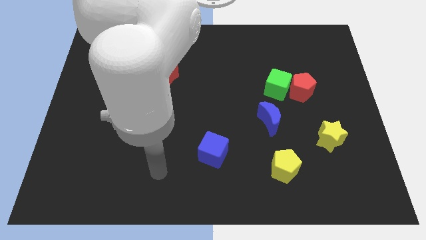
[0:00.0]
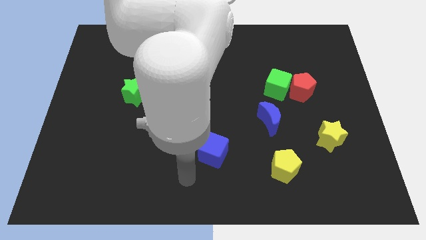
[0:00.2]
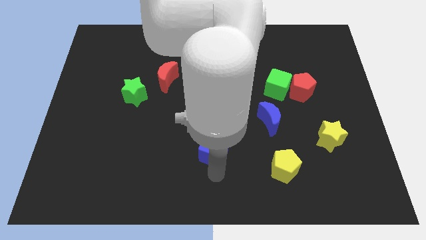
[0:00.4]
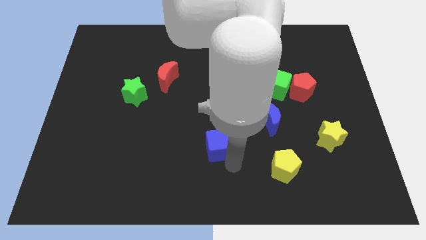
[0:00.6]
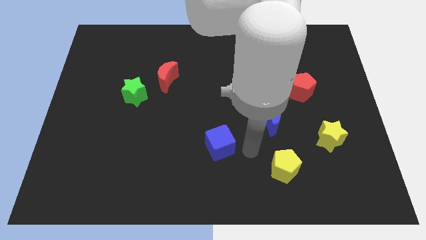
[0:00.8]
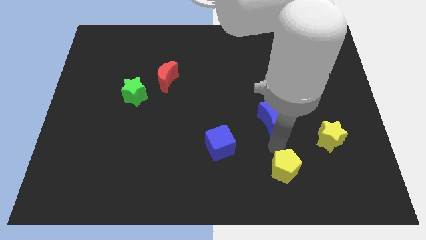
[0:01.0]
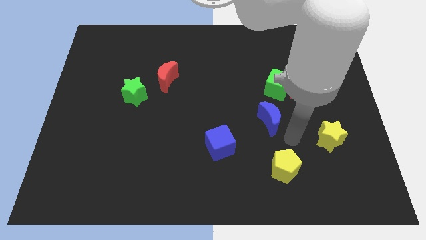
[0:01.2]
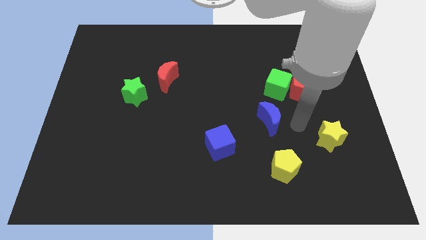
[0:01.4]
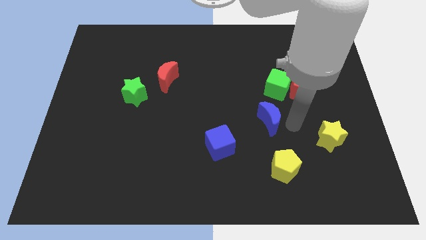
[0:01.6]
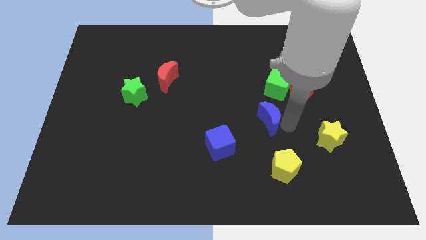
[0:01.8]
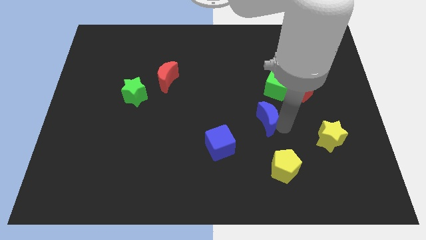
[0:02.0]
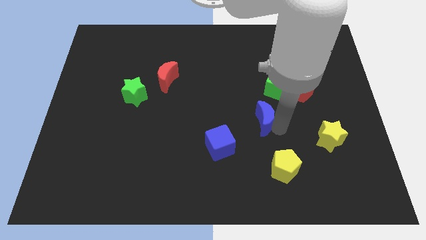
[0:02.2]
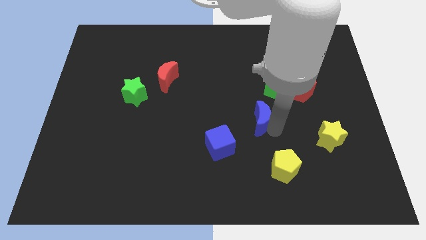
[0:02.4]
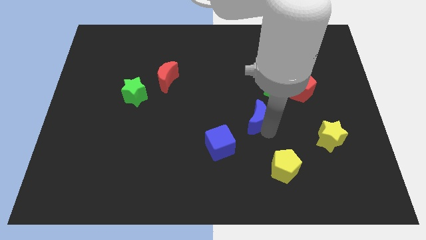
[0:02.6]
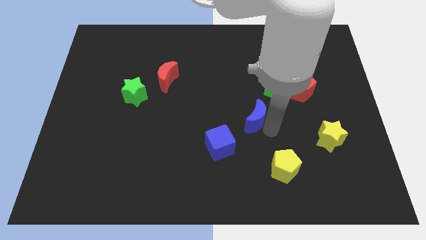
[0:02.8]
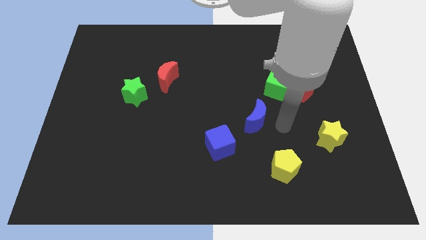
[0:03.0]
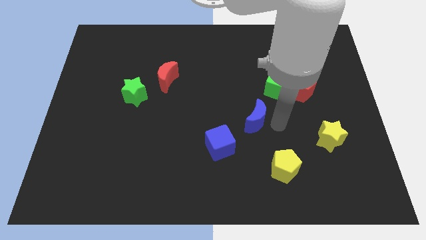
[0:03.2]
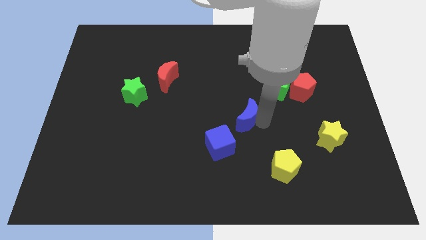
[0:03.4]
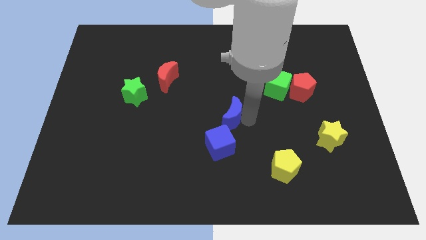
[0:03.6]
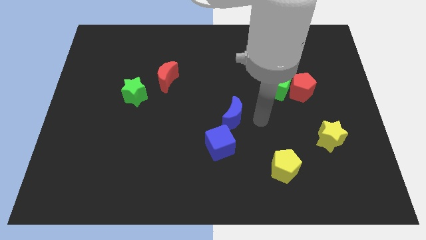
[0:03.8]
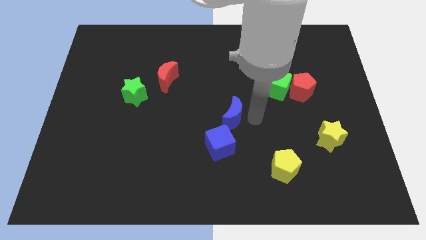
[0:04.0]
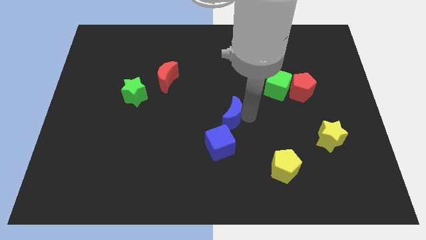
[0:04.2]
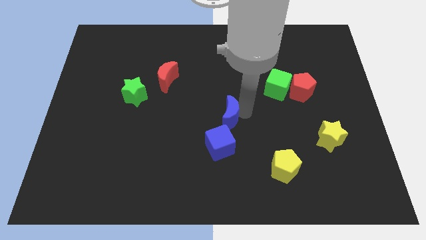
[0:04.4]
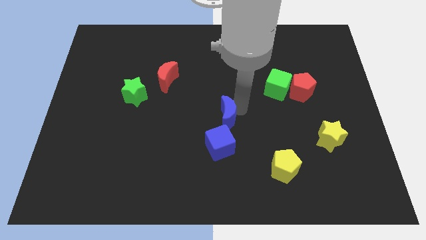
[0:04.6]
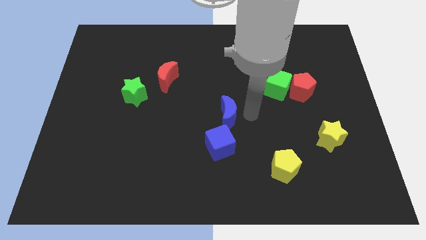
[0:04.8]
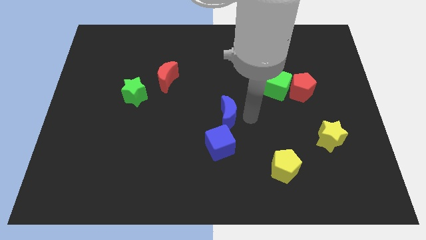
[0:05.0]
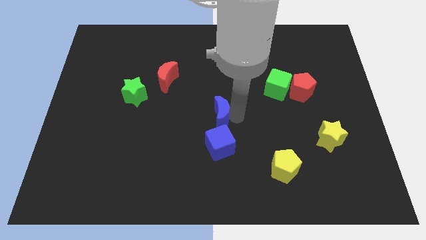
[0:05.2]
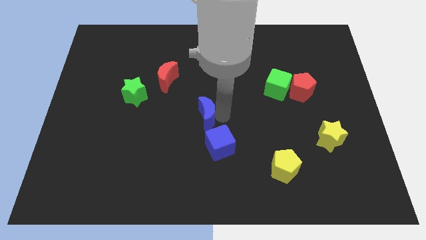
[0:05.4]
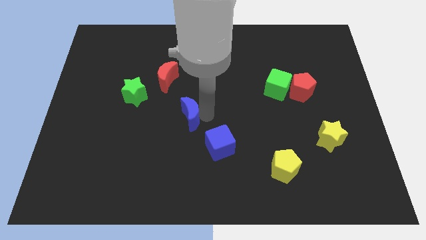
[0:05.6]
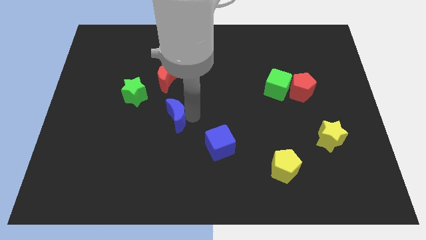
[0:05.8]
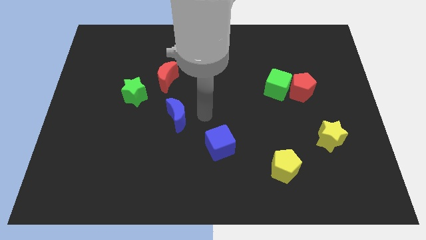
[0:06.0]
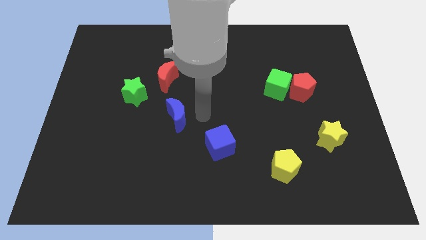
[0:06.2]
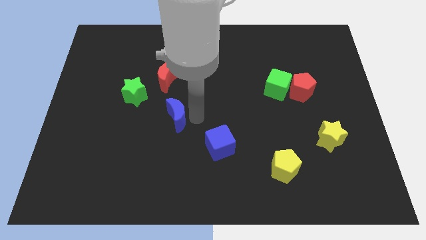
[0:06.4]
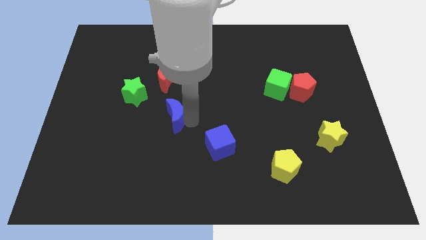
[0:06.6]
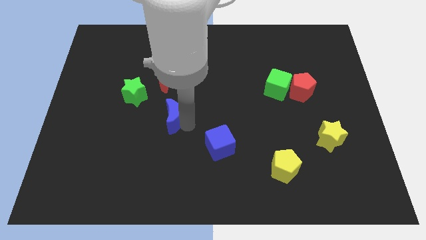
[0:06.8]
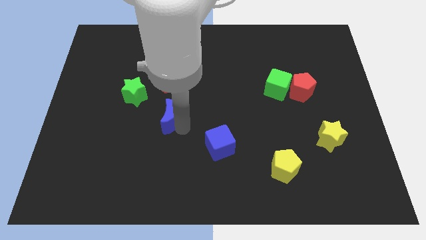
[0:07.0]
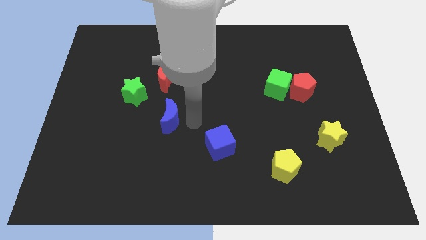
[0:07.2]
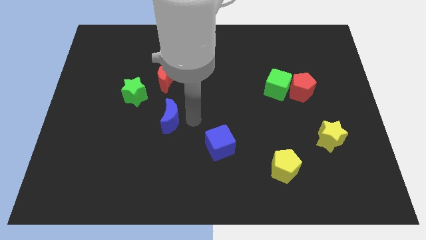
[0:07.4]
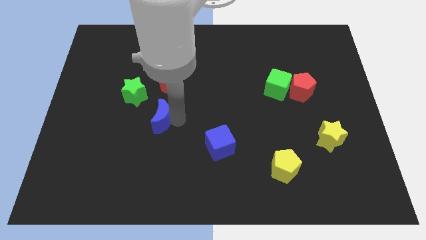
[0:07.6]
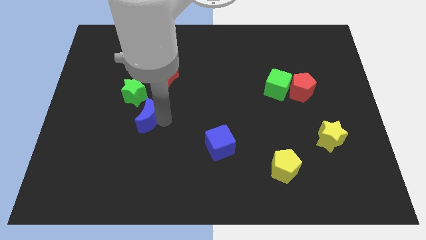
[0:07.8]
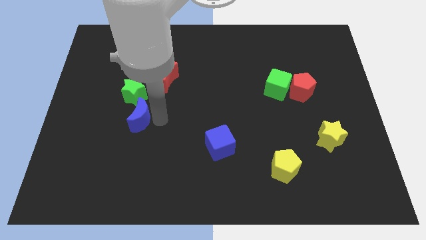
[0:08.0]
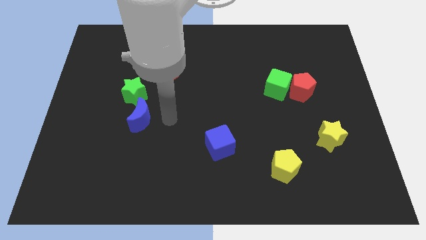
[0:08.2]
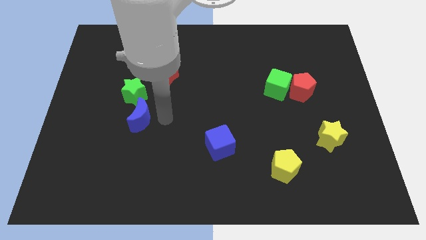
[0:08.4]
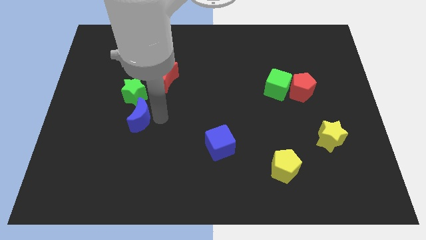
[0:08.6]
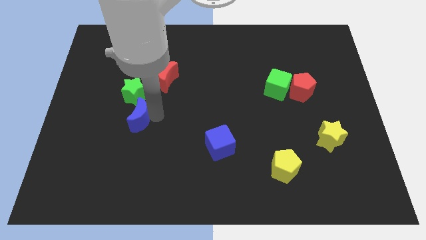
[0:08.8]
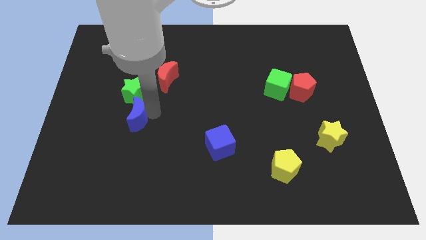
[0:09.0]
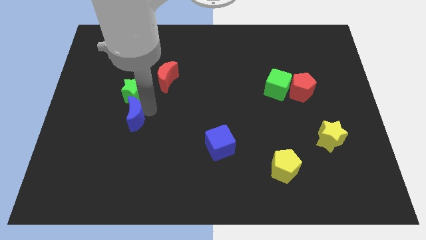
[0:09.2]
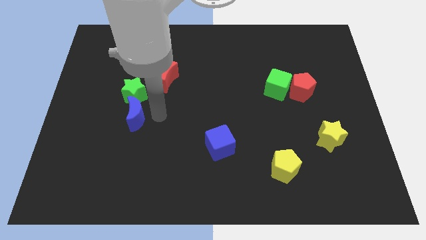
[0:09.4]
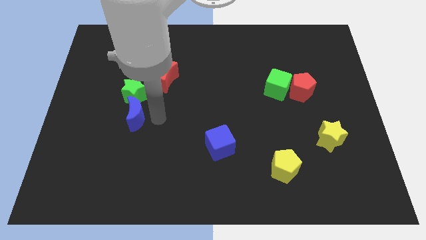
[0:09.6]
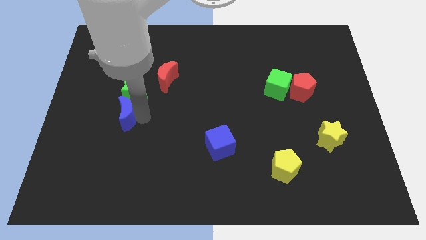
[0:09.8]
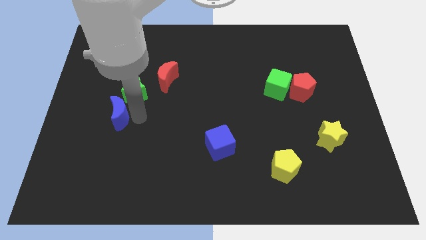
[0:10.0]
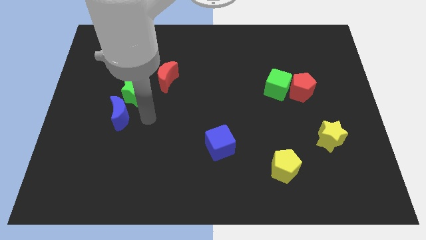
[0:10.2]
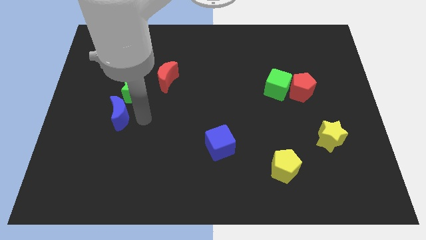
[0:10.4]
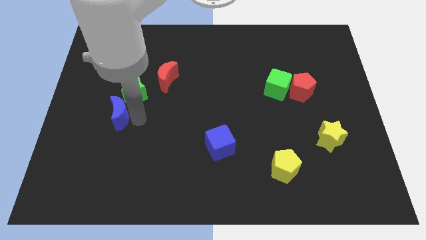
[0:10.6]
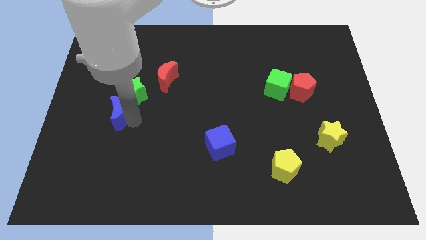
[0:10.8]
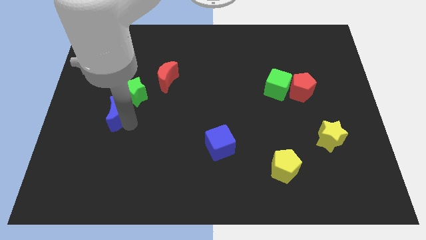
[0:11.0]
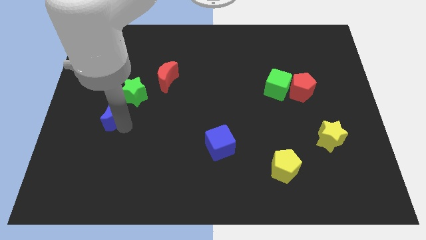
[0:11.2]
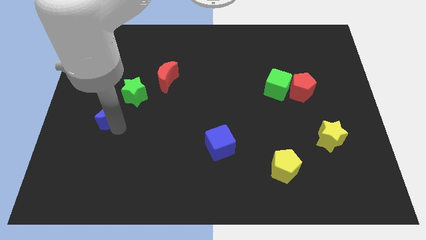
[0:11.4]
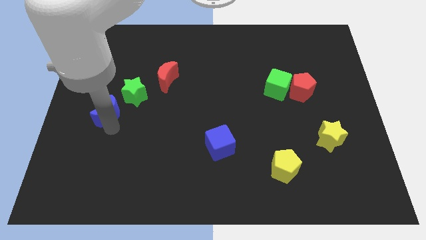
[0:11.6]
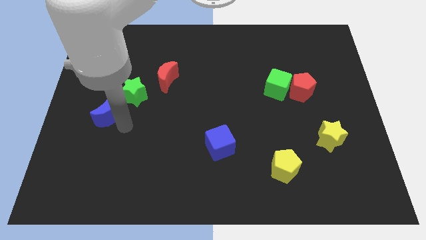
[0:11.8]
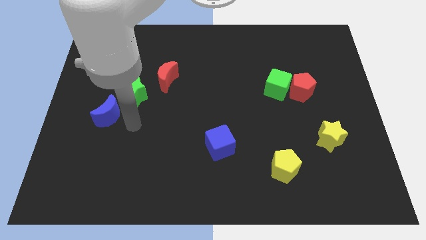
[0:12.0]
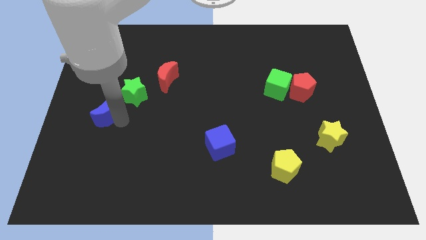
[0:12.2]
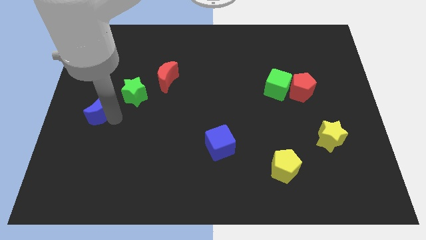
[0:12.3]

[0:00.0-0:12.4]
move the blue moon to the center left

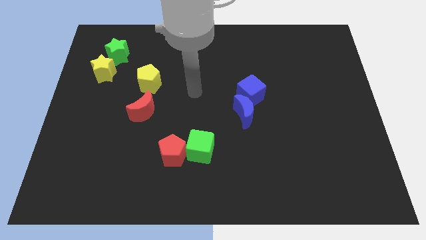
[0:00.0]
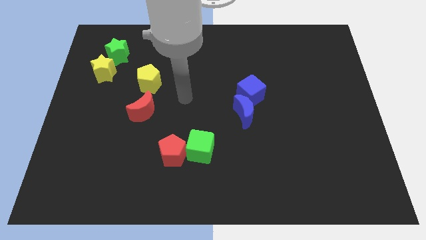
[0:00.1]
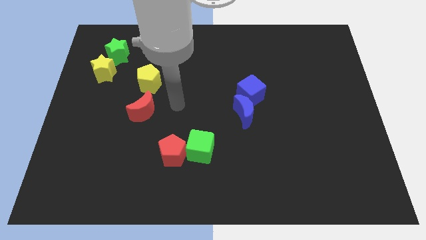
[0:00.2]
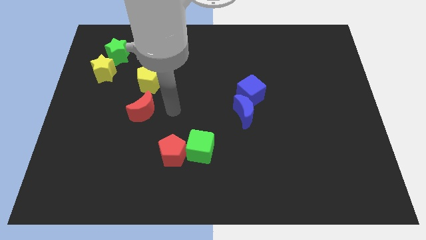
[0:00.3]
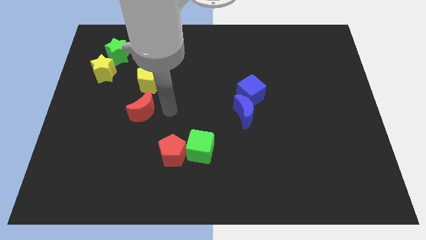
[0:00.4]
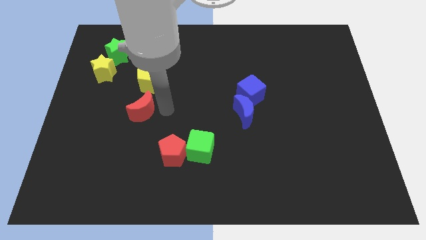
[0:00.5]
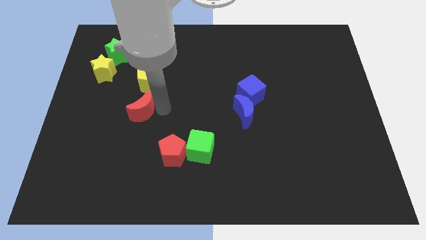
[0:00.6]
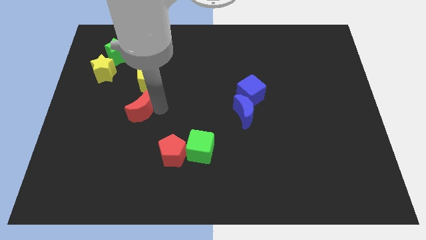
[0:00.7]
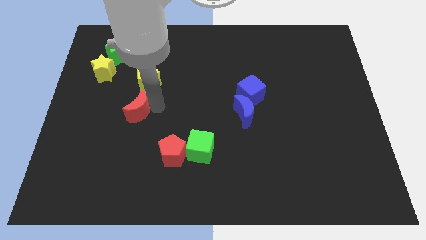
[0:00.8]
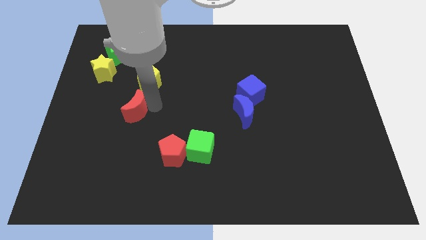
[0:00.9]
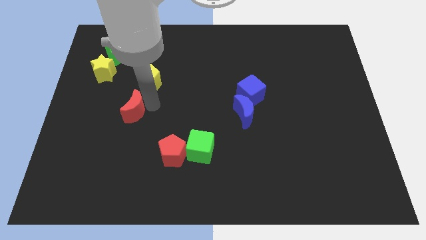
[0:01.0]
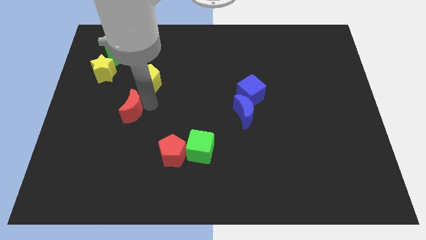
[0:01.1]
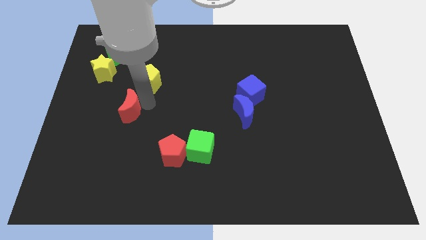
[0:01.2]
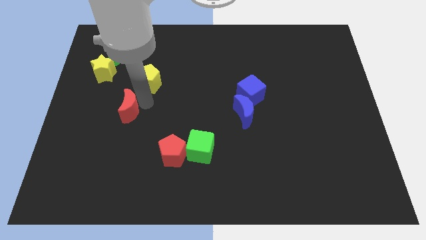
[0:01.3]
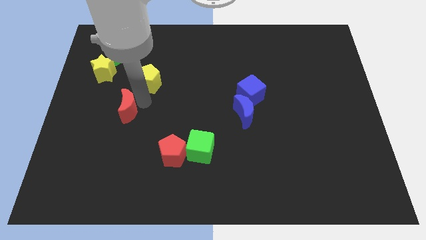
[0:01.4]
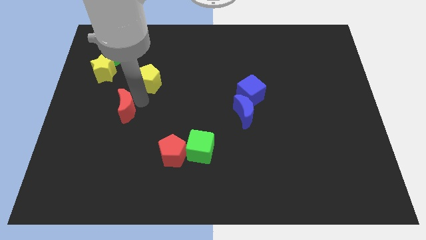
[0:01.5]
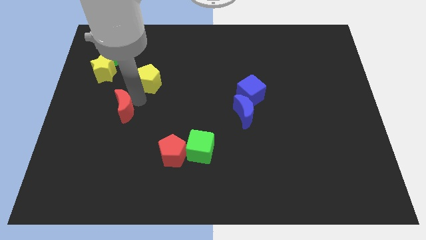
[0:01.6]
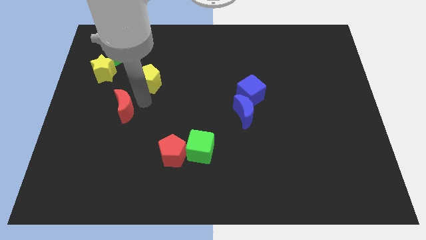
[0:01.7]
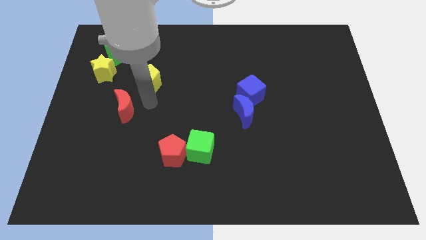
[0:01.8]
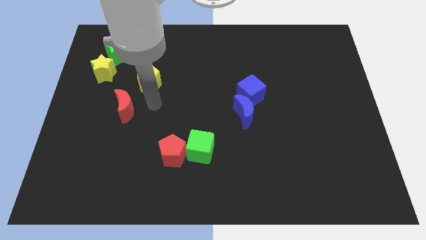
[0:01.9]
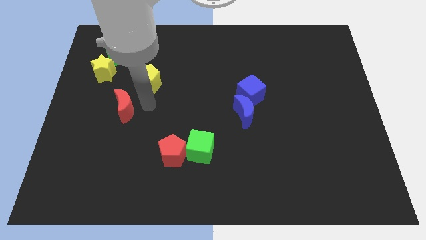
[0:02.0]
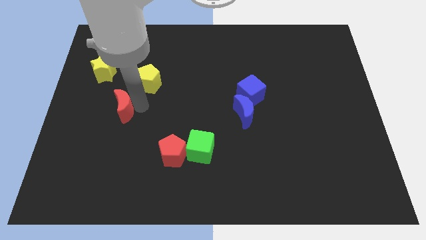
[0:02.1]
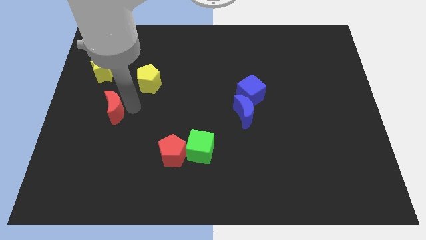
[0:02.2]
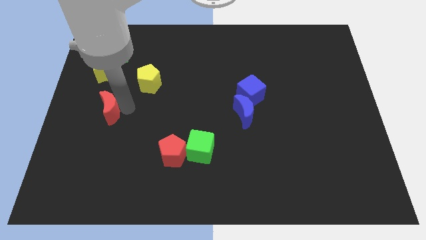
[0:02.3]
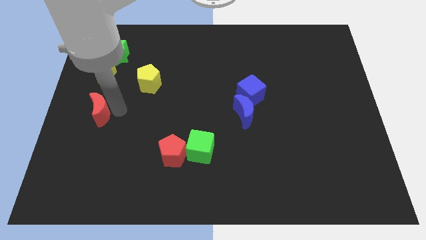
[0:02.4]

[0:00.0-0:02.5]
move the red moon to the center left

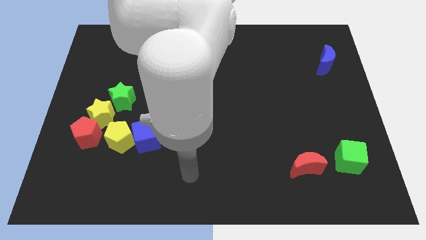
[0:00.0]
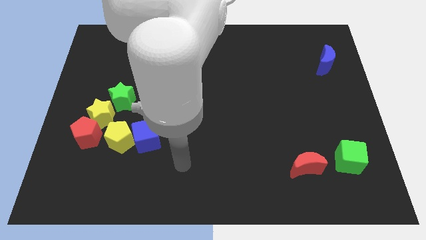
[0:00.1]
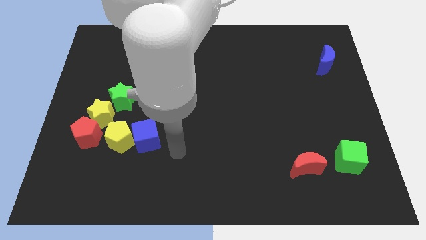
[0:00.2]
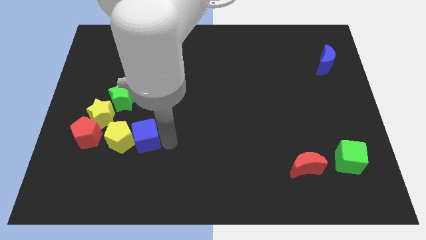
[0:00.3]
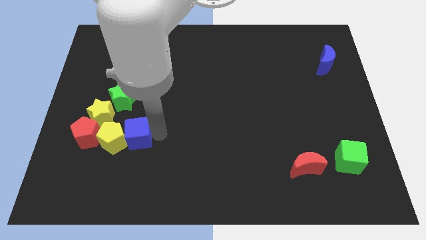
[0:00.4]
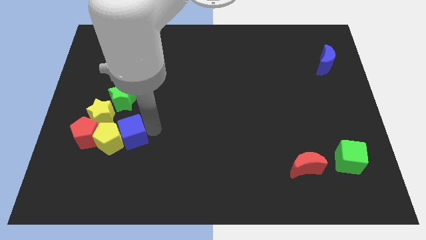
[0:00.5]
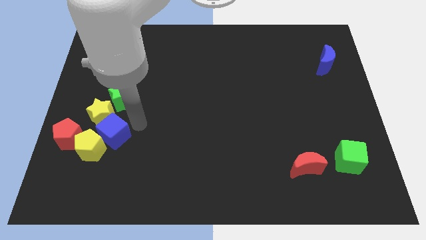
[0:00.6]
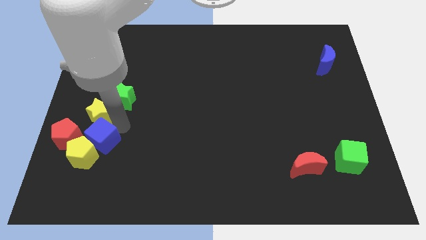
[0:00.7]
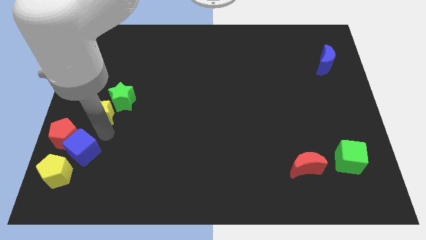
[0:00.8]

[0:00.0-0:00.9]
put the yellow pentagon to the bottom left
